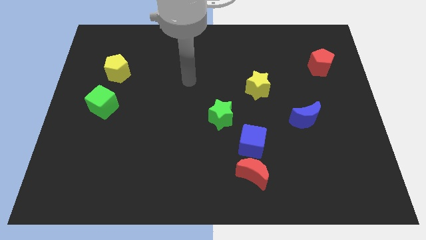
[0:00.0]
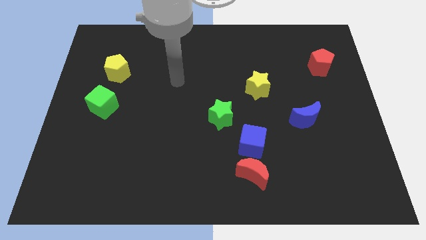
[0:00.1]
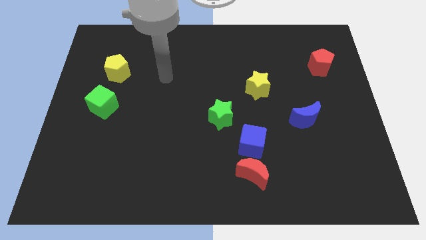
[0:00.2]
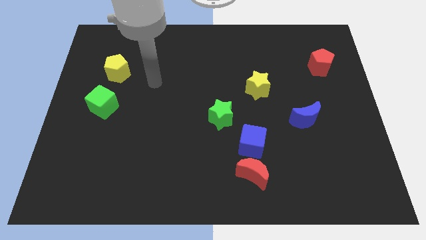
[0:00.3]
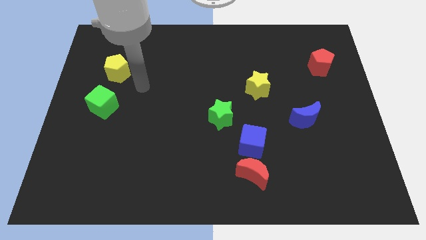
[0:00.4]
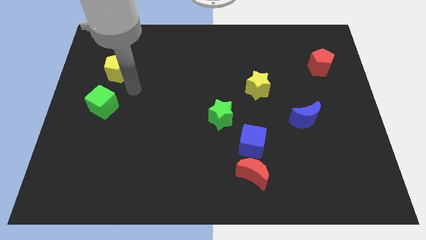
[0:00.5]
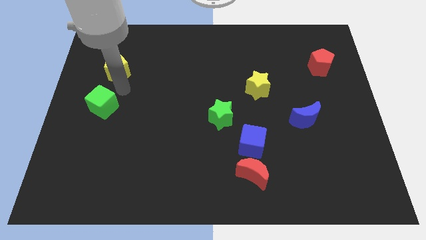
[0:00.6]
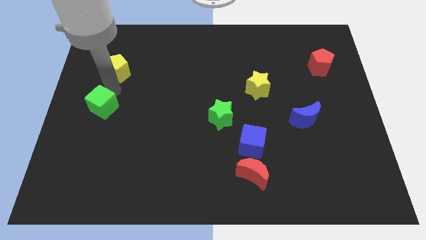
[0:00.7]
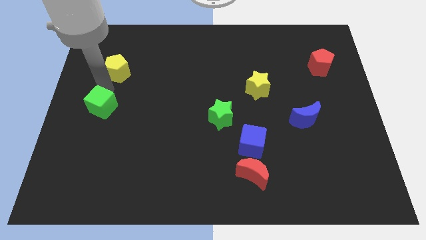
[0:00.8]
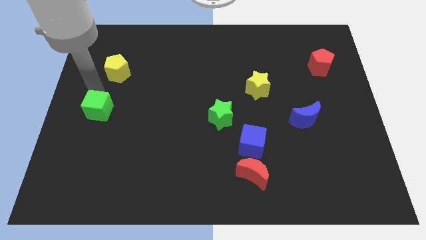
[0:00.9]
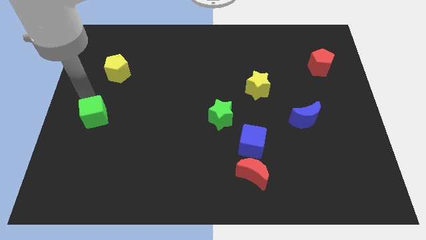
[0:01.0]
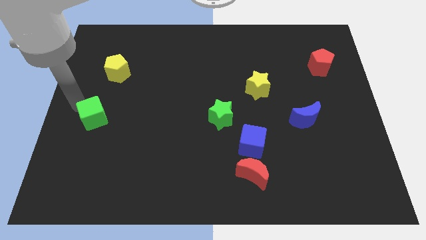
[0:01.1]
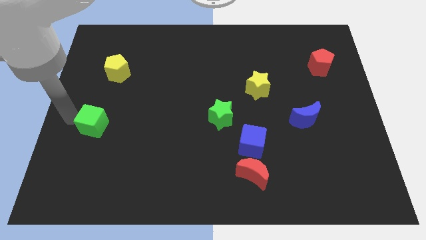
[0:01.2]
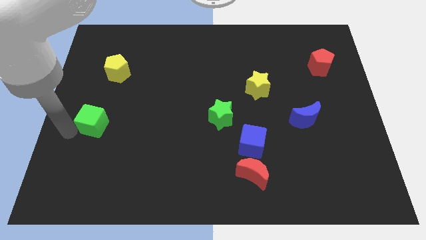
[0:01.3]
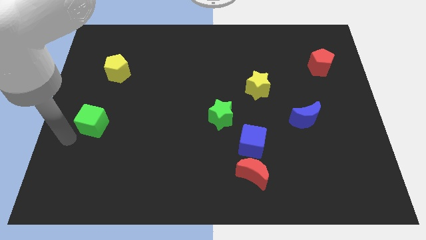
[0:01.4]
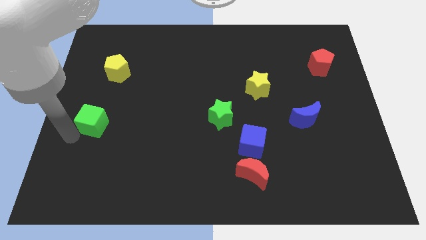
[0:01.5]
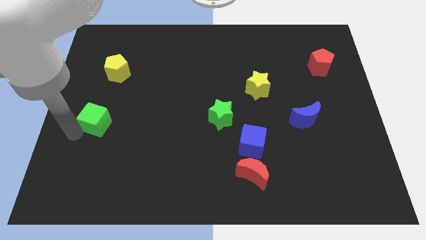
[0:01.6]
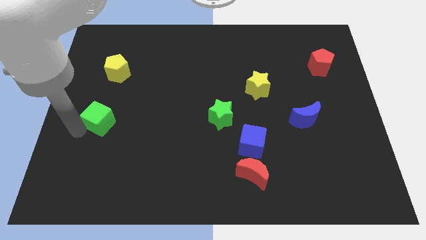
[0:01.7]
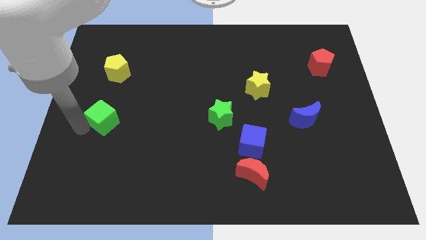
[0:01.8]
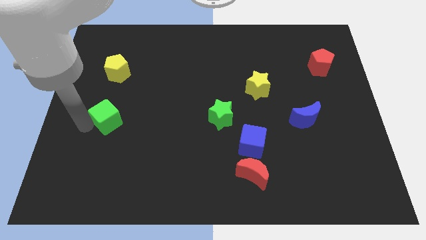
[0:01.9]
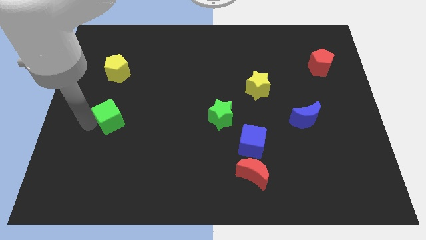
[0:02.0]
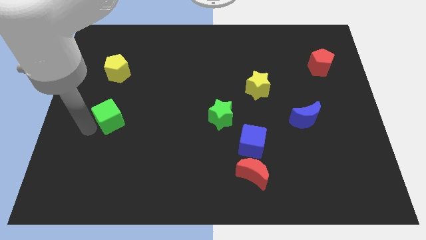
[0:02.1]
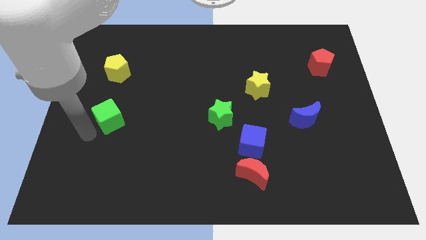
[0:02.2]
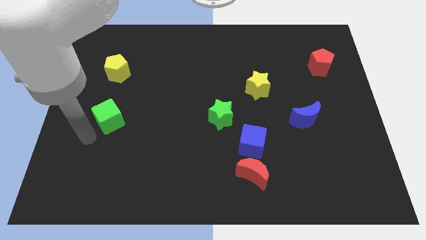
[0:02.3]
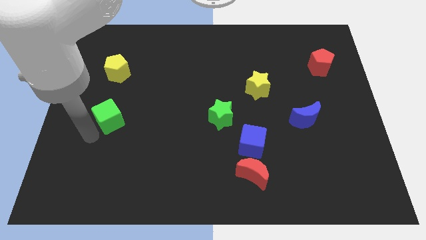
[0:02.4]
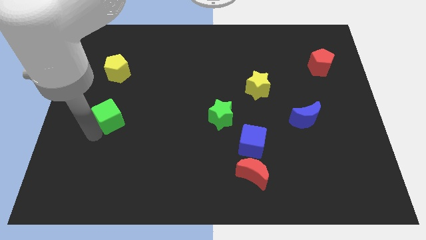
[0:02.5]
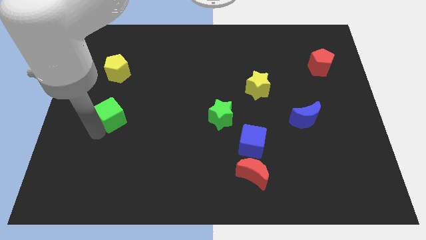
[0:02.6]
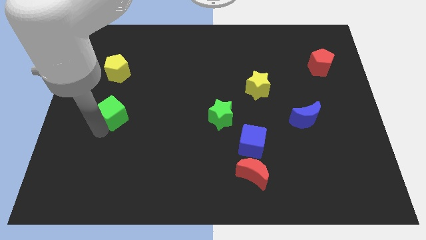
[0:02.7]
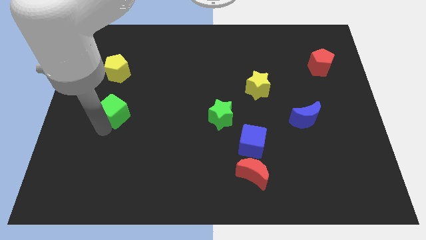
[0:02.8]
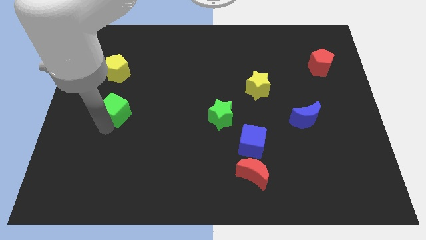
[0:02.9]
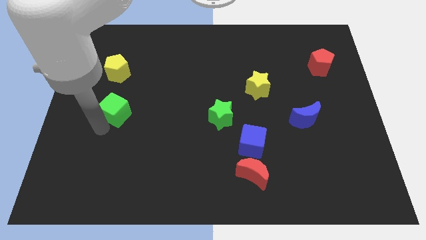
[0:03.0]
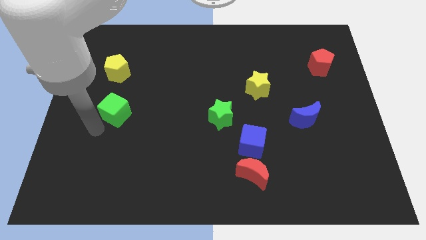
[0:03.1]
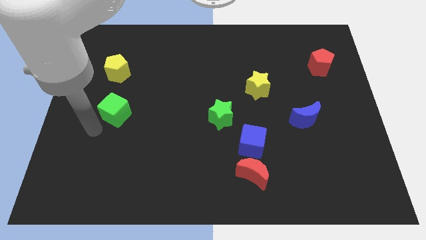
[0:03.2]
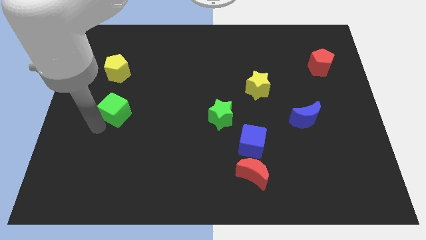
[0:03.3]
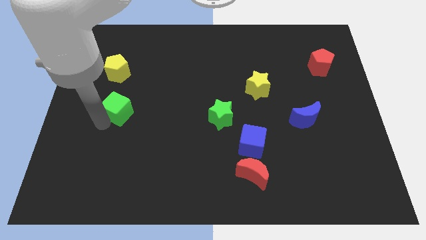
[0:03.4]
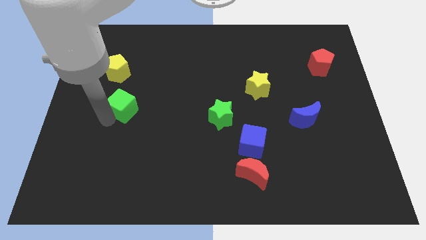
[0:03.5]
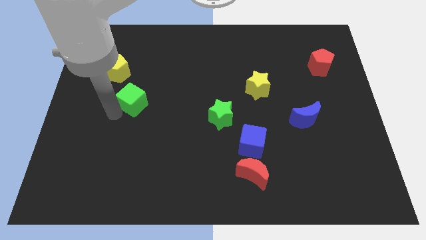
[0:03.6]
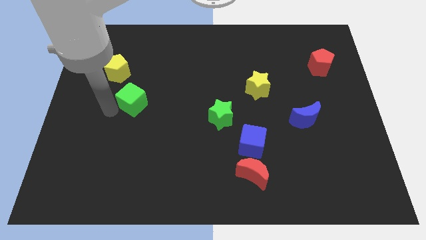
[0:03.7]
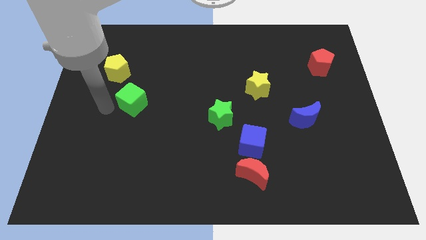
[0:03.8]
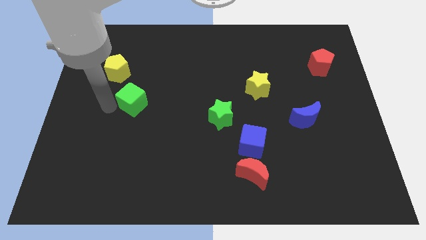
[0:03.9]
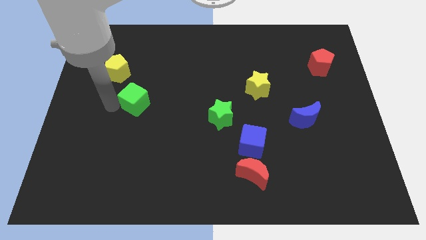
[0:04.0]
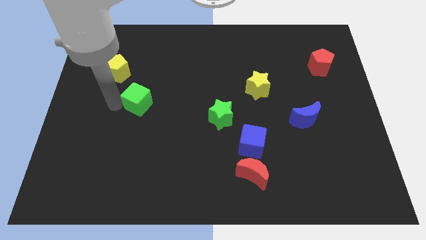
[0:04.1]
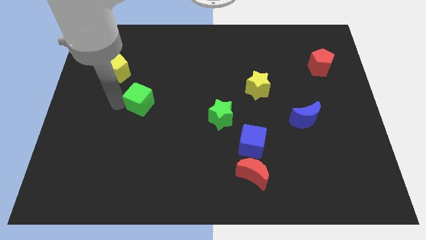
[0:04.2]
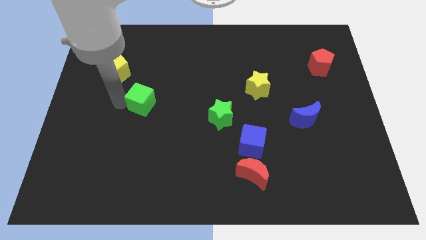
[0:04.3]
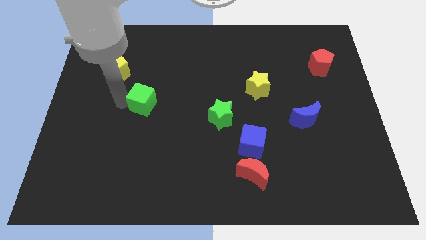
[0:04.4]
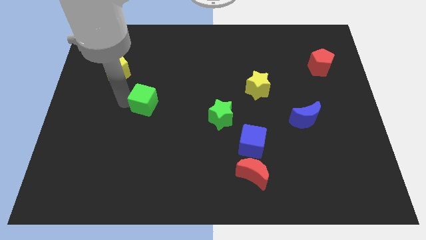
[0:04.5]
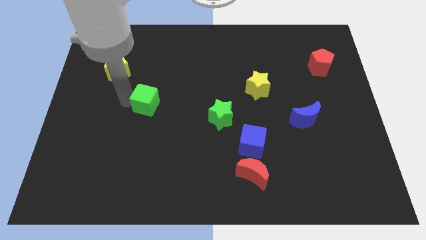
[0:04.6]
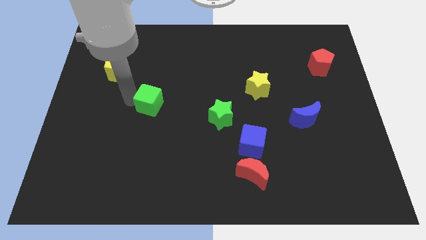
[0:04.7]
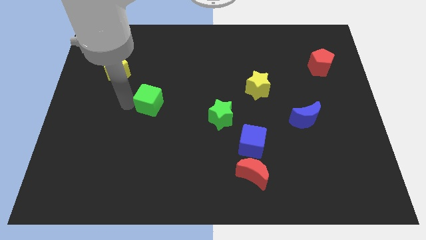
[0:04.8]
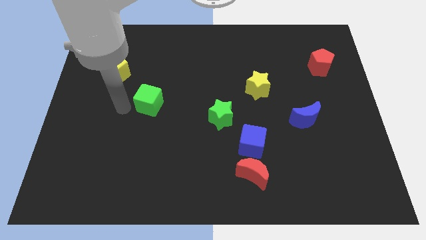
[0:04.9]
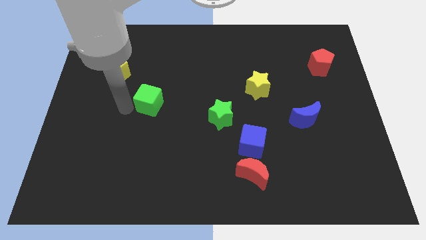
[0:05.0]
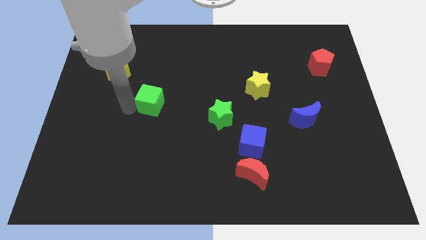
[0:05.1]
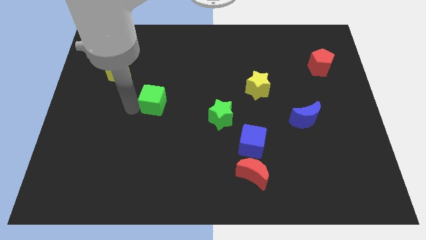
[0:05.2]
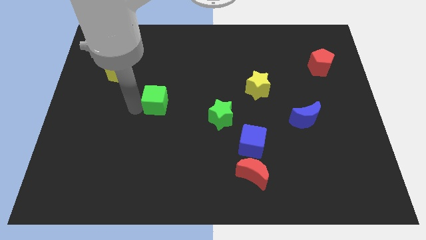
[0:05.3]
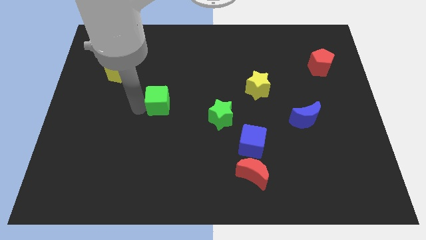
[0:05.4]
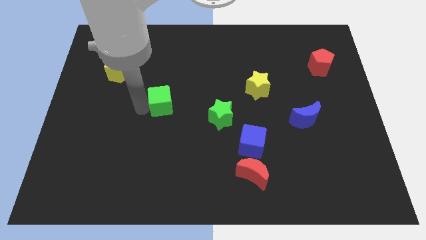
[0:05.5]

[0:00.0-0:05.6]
move the green cube to the middle

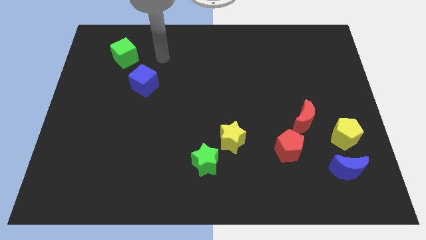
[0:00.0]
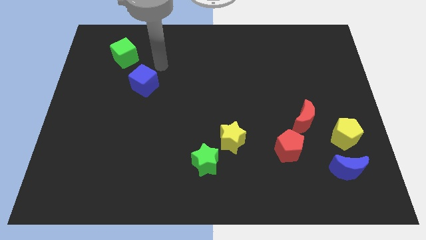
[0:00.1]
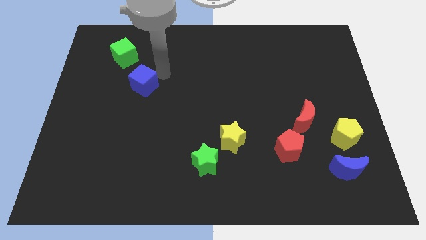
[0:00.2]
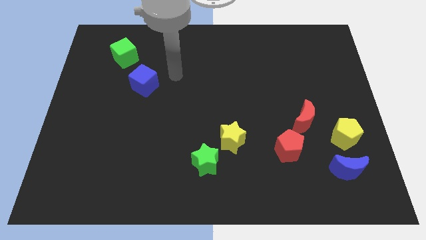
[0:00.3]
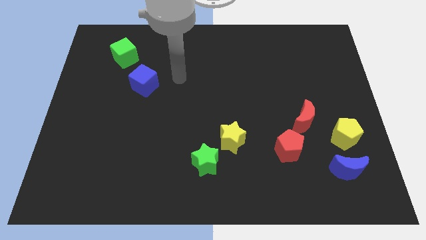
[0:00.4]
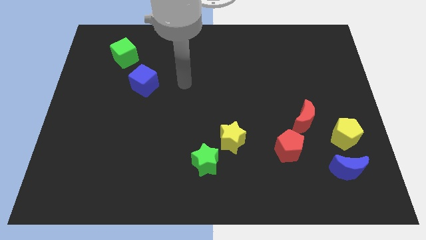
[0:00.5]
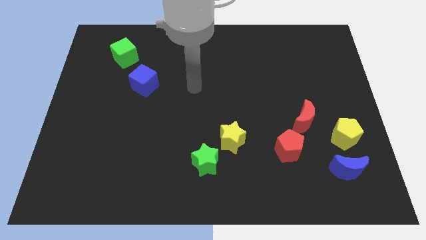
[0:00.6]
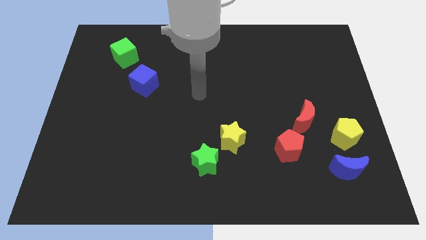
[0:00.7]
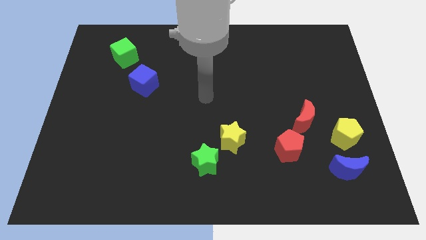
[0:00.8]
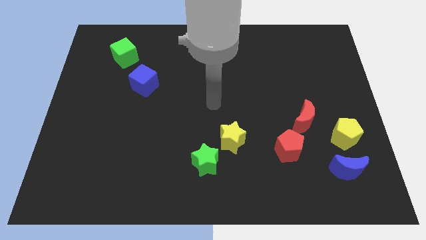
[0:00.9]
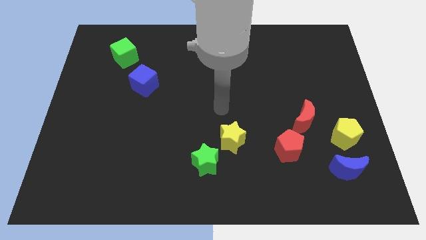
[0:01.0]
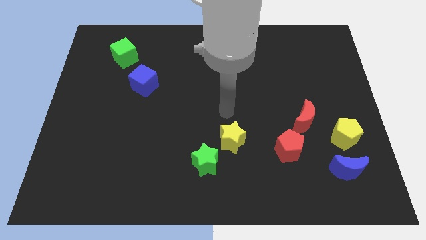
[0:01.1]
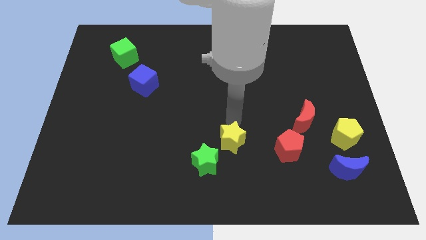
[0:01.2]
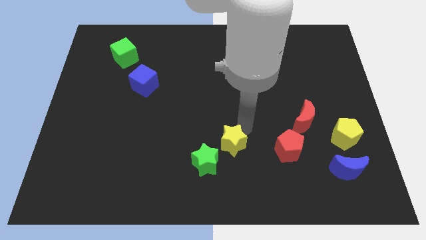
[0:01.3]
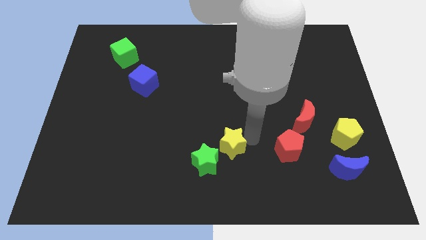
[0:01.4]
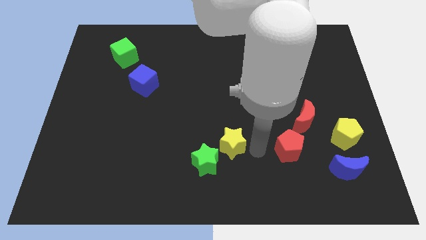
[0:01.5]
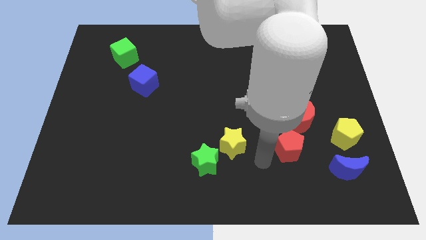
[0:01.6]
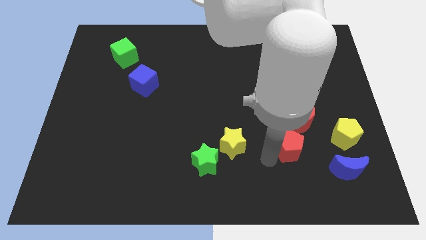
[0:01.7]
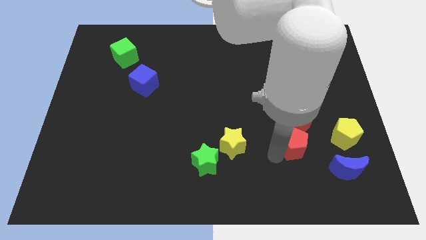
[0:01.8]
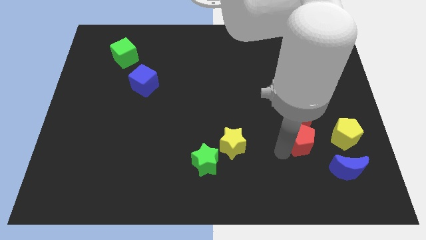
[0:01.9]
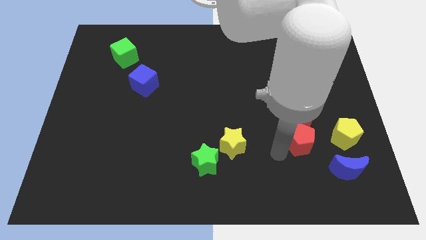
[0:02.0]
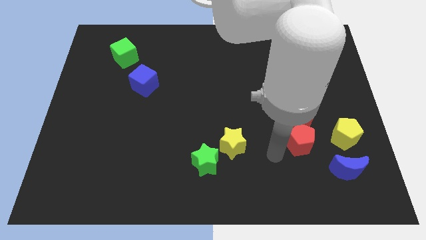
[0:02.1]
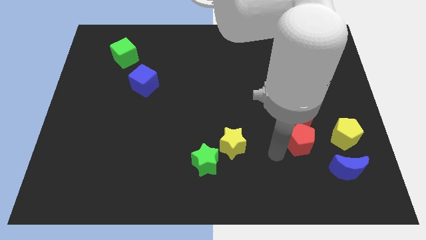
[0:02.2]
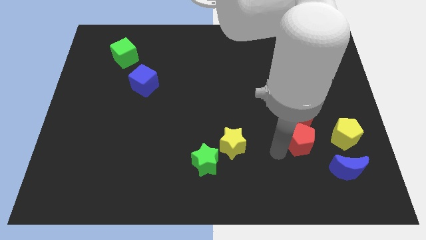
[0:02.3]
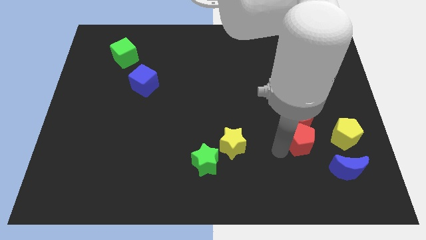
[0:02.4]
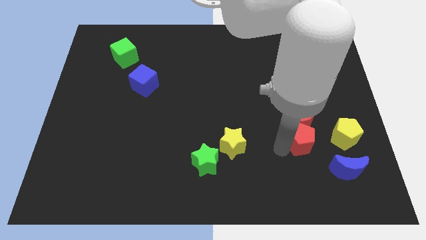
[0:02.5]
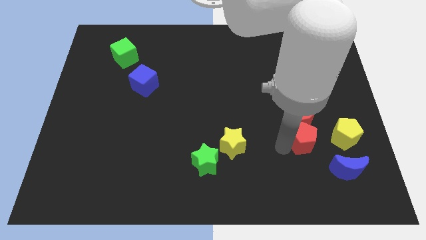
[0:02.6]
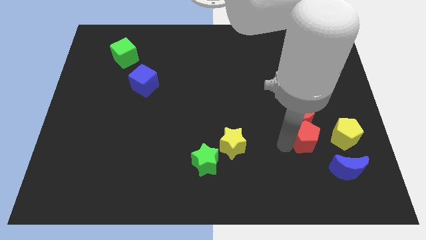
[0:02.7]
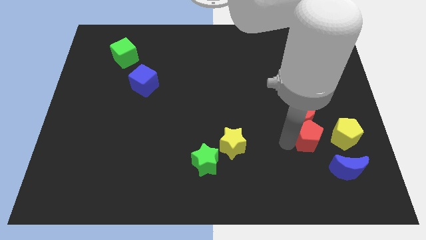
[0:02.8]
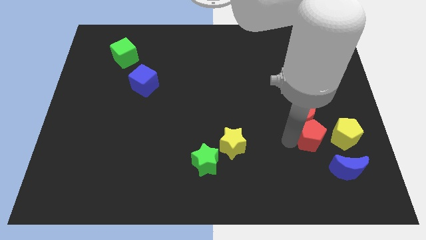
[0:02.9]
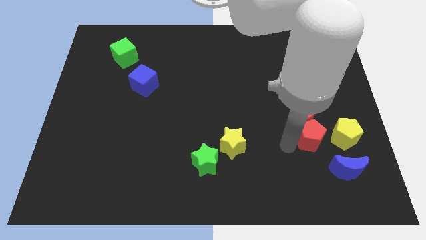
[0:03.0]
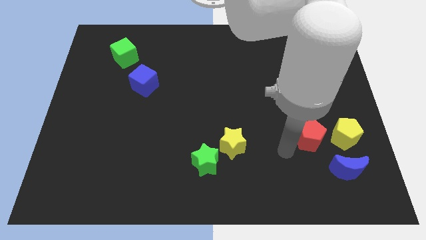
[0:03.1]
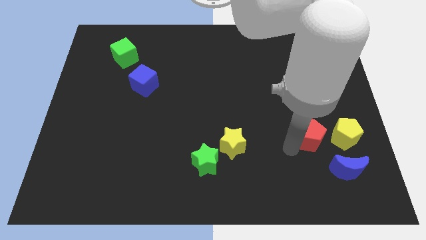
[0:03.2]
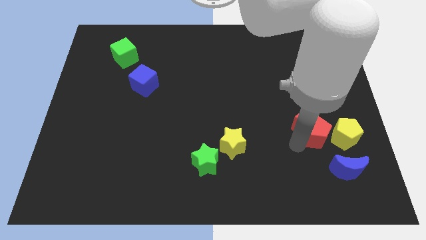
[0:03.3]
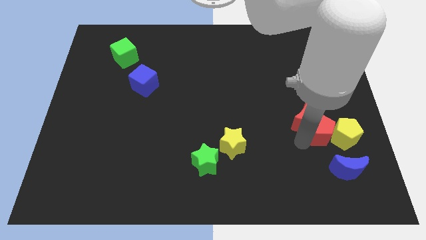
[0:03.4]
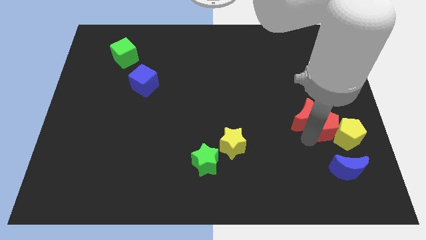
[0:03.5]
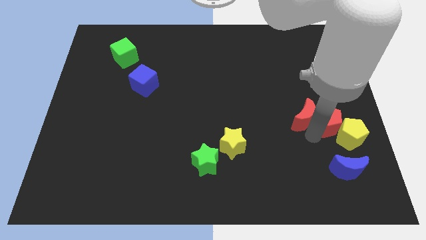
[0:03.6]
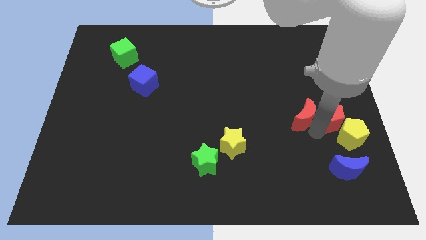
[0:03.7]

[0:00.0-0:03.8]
put the red pentagon to the right side of the board
